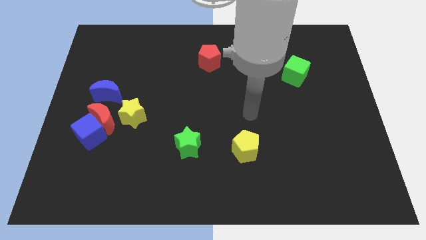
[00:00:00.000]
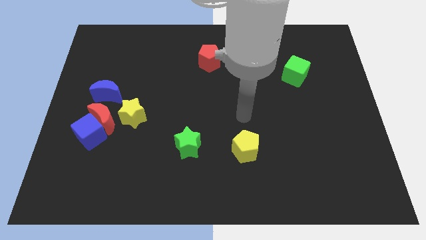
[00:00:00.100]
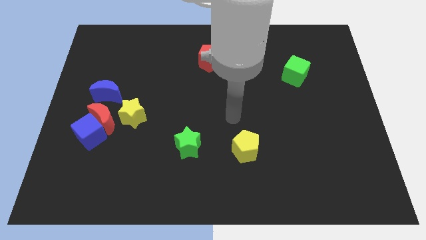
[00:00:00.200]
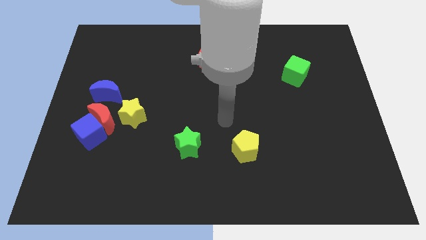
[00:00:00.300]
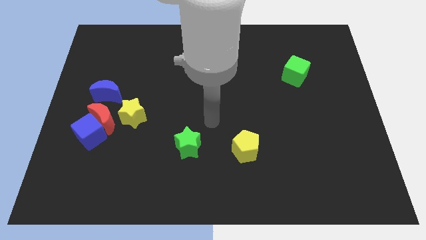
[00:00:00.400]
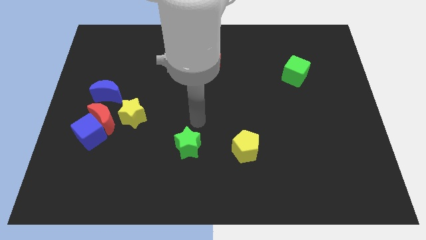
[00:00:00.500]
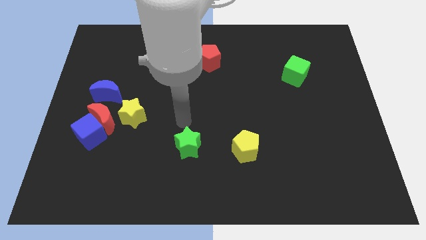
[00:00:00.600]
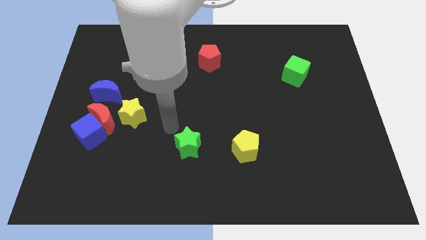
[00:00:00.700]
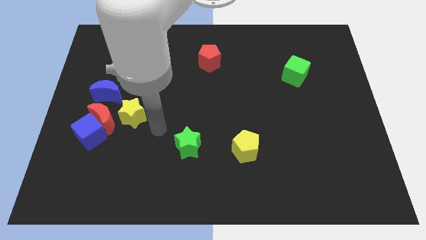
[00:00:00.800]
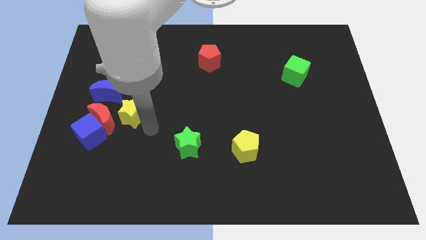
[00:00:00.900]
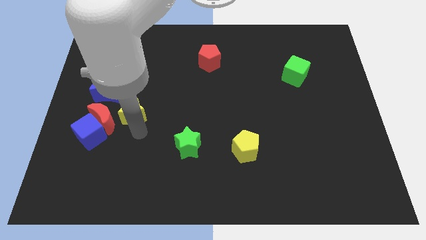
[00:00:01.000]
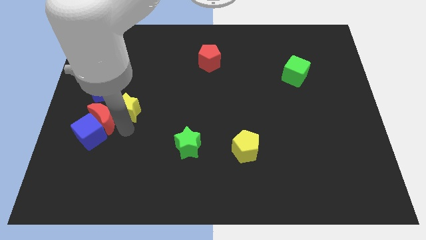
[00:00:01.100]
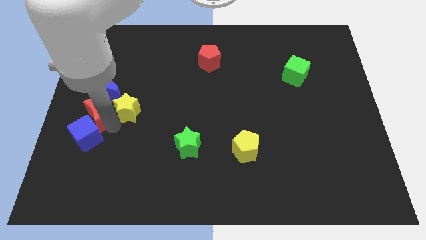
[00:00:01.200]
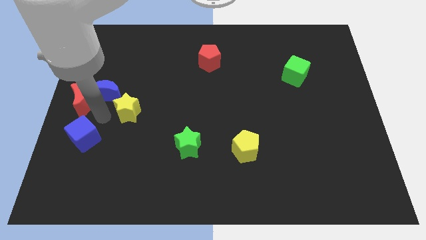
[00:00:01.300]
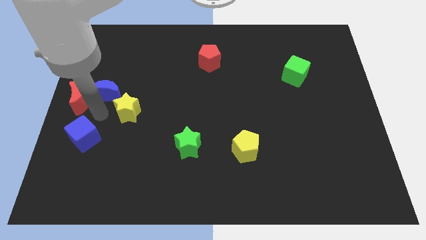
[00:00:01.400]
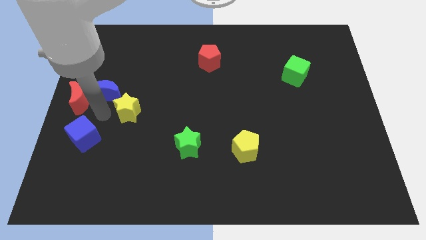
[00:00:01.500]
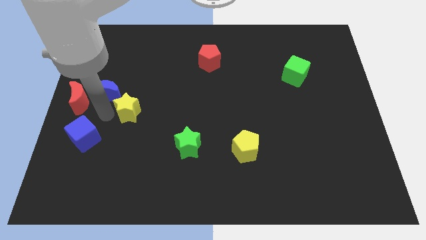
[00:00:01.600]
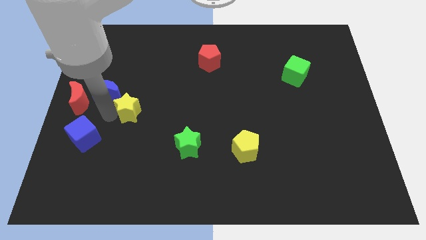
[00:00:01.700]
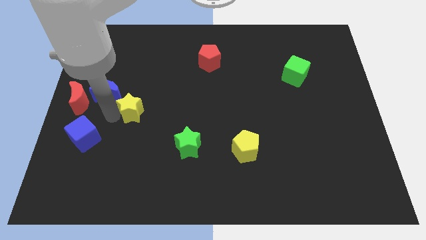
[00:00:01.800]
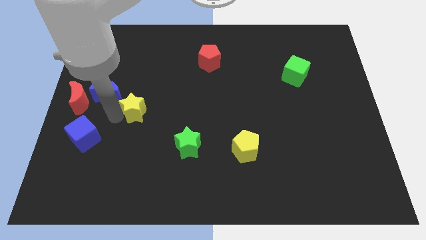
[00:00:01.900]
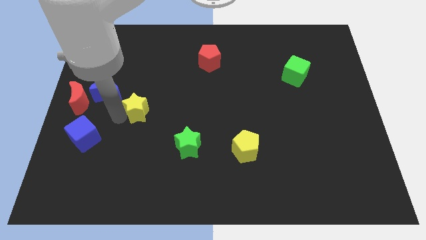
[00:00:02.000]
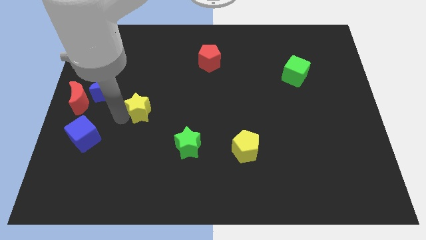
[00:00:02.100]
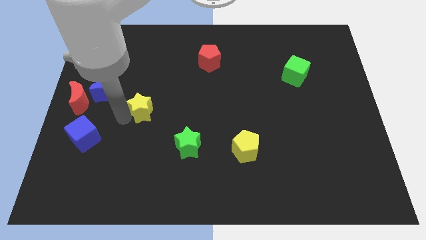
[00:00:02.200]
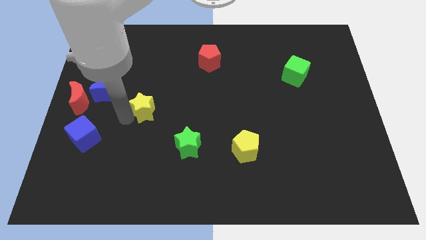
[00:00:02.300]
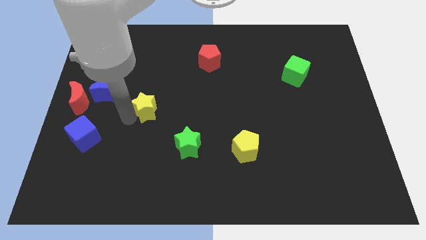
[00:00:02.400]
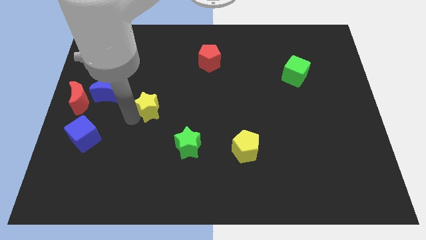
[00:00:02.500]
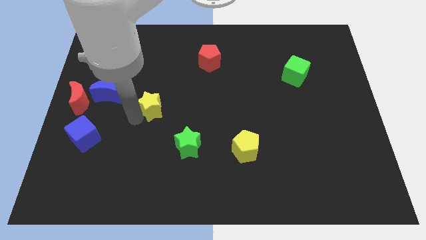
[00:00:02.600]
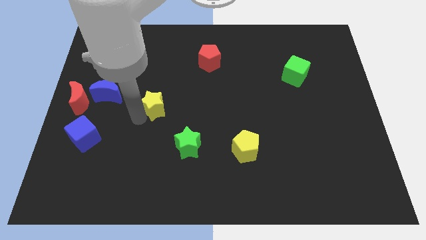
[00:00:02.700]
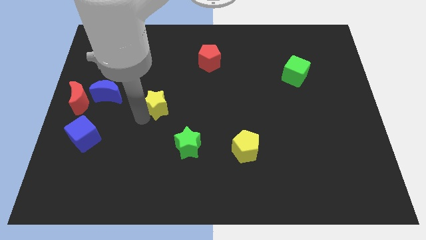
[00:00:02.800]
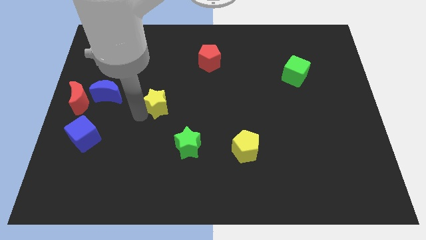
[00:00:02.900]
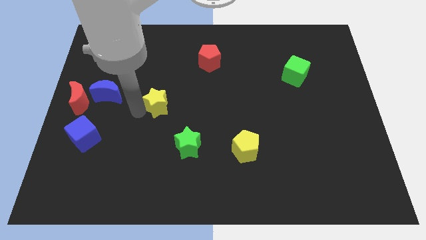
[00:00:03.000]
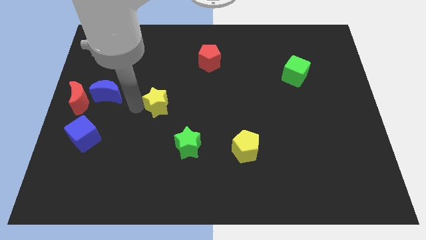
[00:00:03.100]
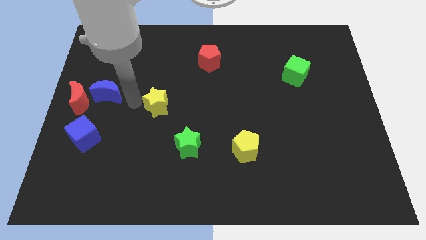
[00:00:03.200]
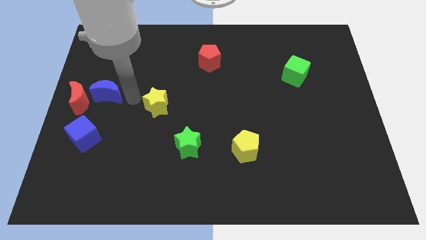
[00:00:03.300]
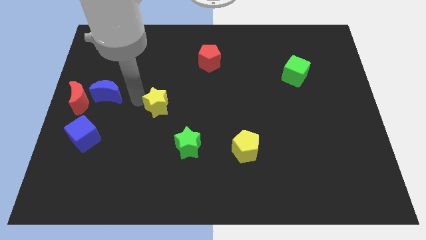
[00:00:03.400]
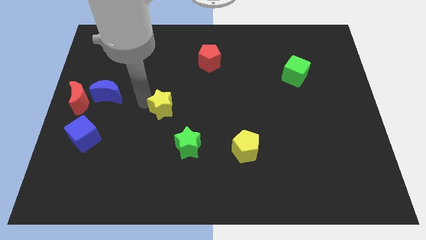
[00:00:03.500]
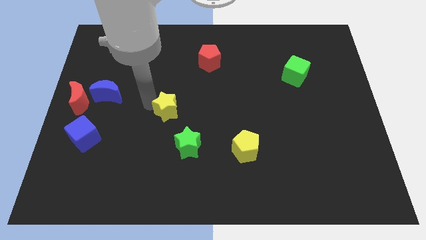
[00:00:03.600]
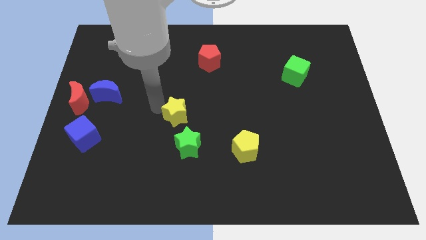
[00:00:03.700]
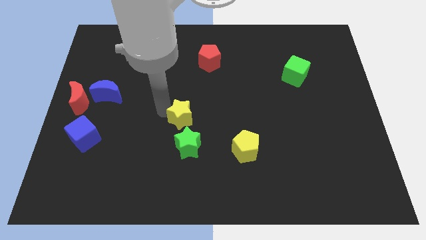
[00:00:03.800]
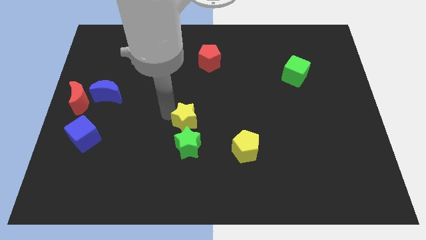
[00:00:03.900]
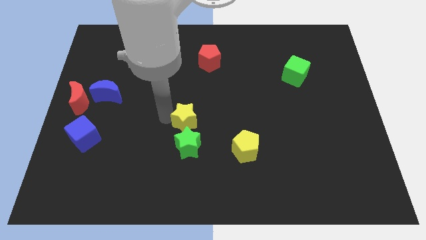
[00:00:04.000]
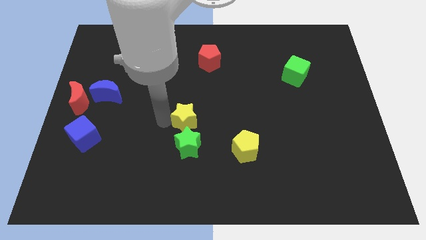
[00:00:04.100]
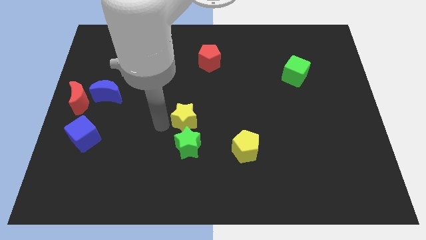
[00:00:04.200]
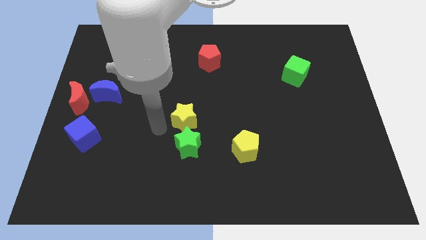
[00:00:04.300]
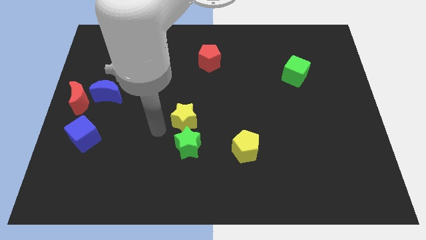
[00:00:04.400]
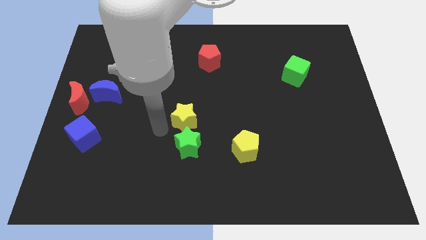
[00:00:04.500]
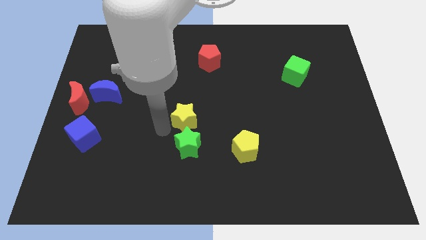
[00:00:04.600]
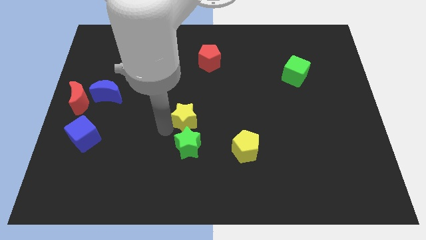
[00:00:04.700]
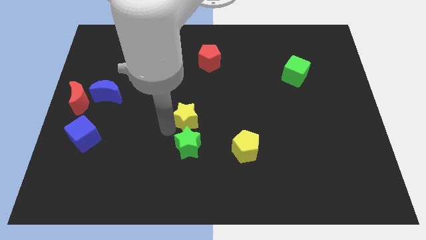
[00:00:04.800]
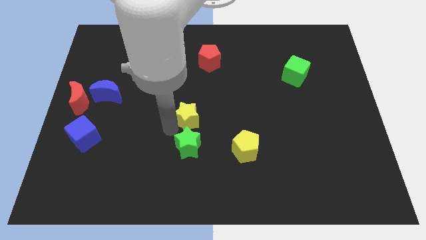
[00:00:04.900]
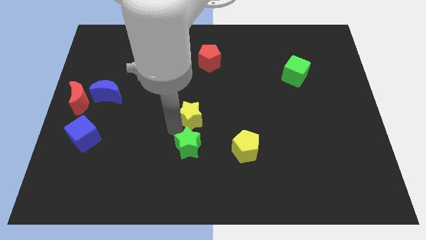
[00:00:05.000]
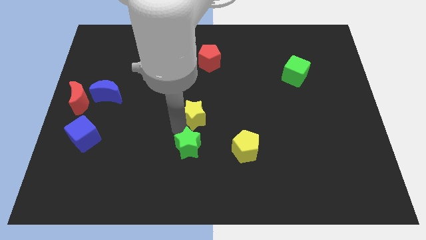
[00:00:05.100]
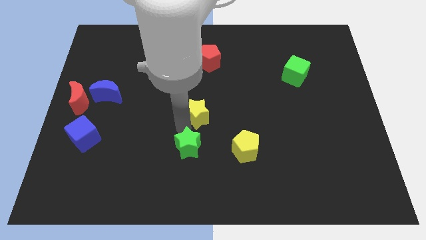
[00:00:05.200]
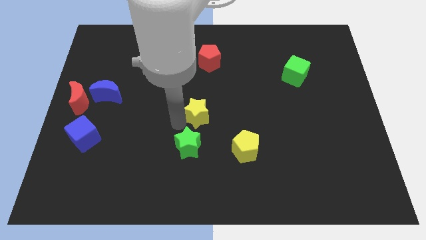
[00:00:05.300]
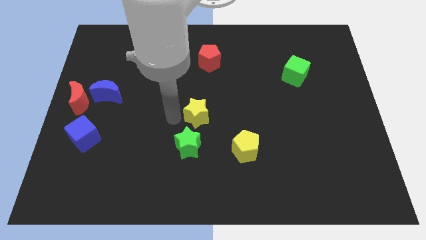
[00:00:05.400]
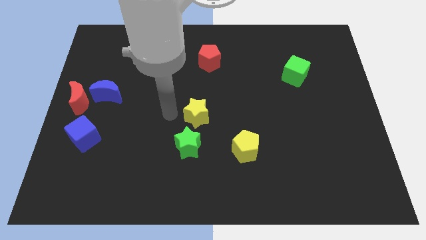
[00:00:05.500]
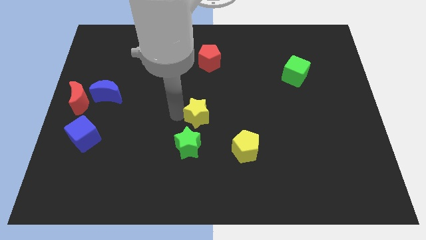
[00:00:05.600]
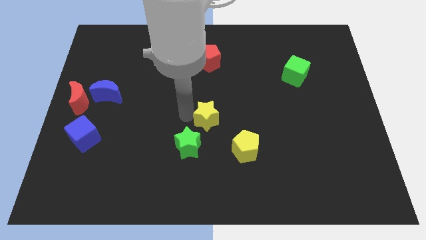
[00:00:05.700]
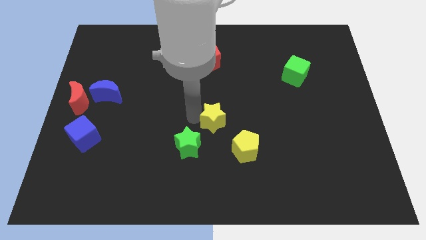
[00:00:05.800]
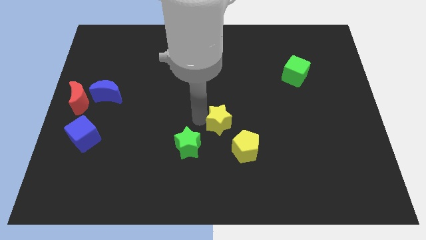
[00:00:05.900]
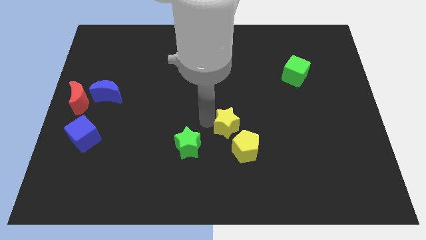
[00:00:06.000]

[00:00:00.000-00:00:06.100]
push the yellow star to the right

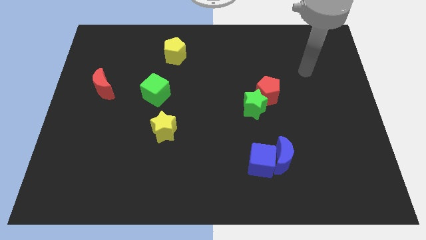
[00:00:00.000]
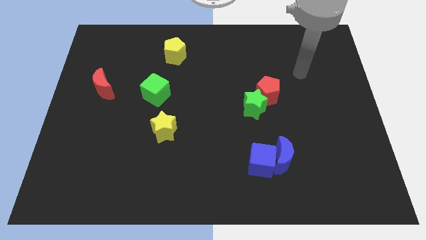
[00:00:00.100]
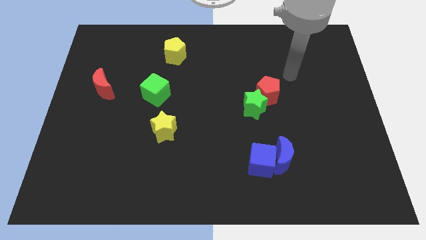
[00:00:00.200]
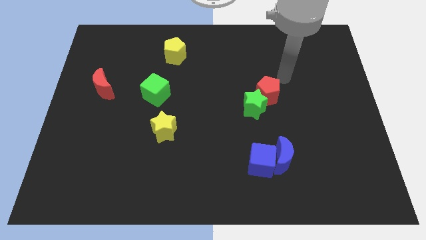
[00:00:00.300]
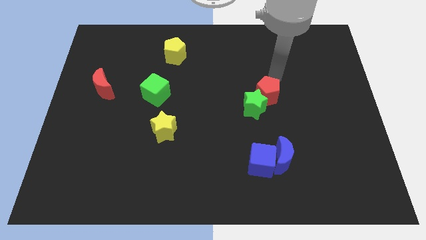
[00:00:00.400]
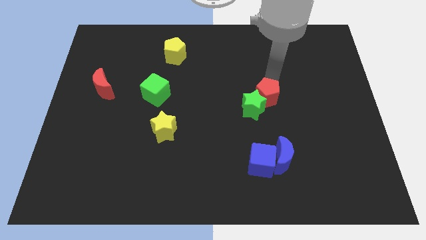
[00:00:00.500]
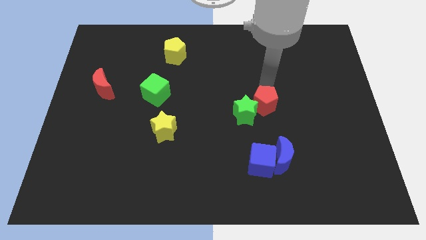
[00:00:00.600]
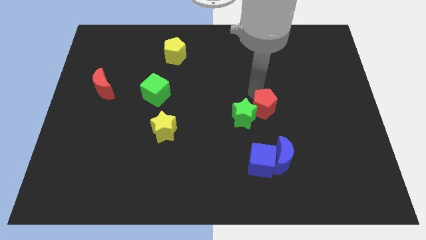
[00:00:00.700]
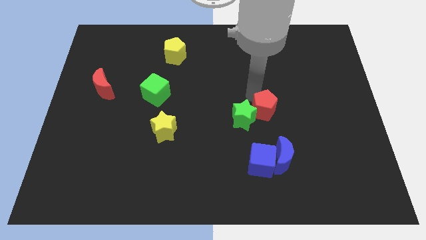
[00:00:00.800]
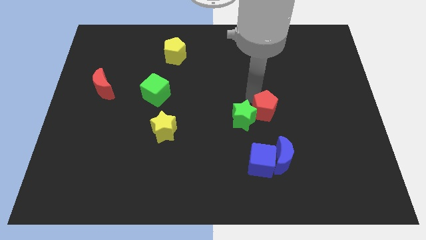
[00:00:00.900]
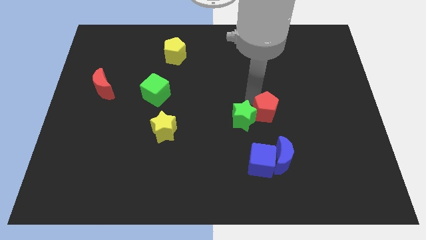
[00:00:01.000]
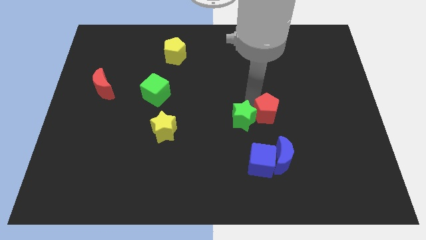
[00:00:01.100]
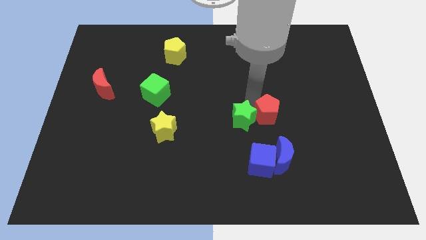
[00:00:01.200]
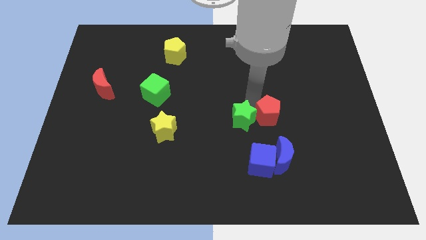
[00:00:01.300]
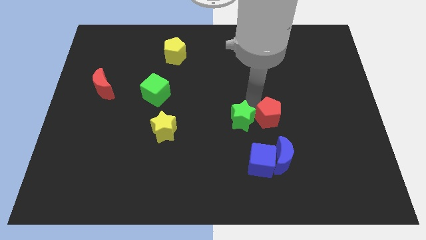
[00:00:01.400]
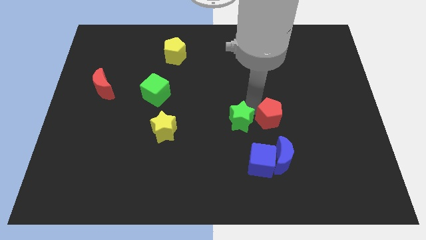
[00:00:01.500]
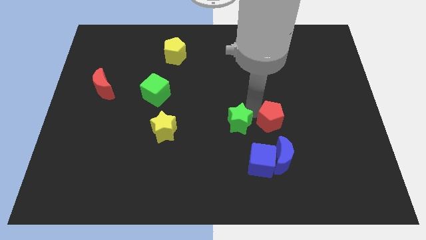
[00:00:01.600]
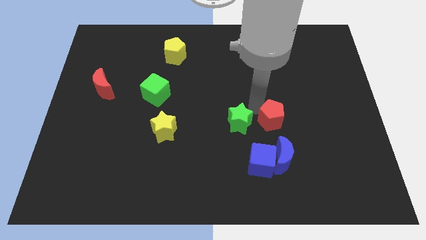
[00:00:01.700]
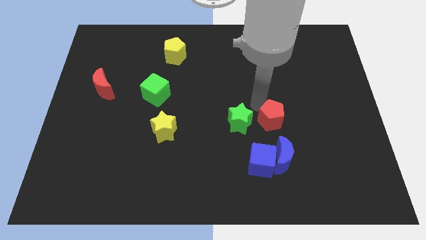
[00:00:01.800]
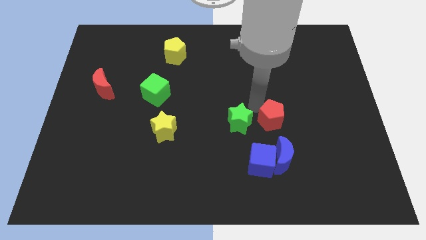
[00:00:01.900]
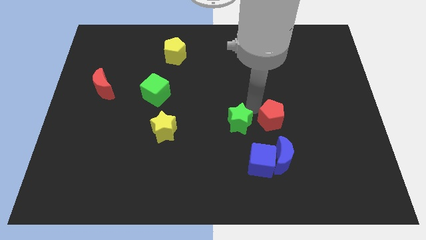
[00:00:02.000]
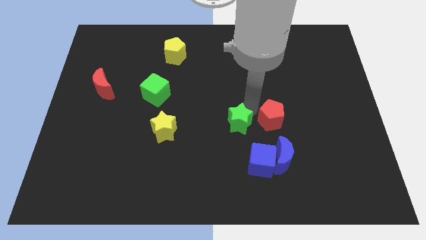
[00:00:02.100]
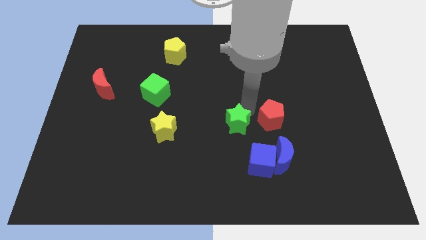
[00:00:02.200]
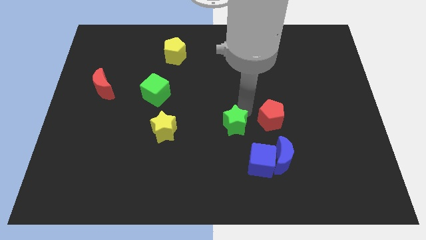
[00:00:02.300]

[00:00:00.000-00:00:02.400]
slightly move the green star diagonally down and to the left
